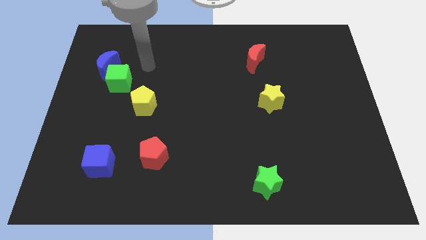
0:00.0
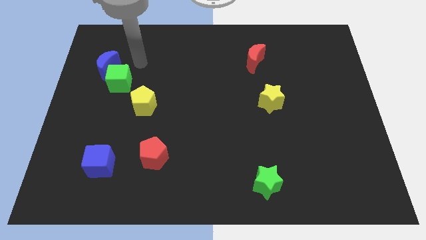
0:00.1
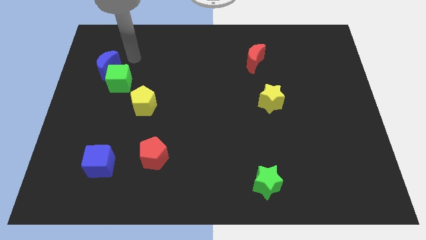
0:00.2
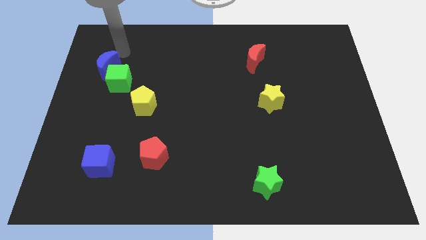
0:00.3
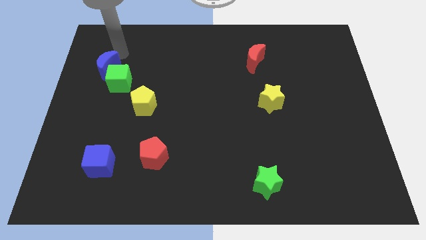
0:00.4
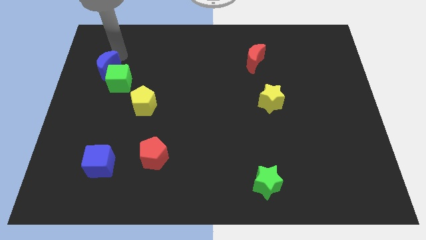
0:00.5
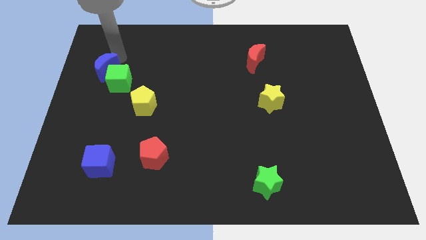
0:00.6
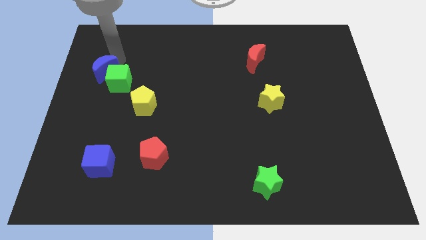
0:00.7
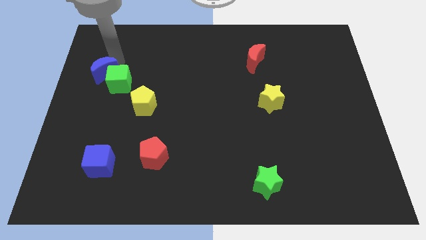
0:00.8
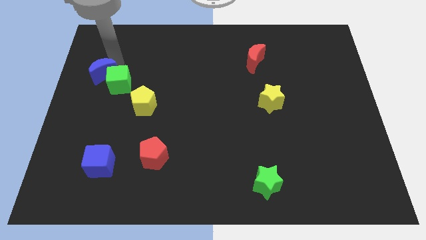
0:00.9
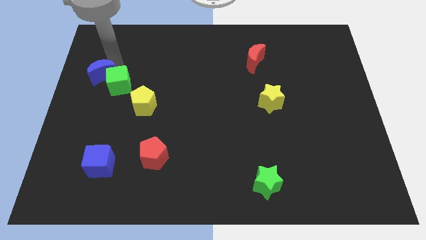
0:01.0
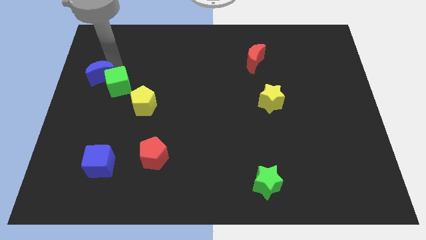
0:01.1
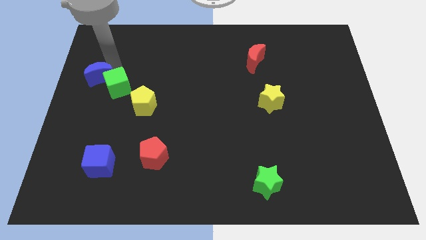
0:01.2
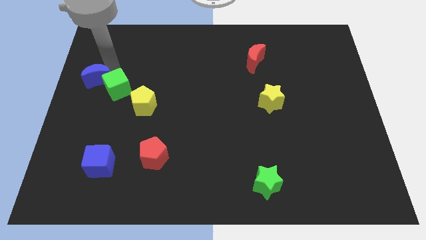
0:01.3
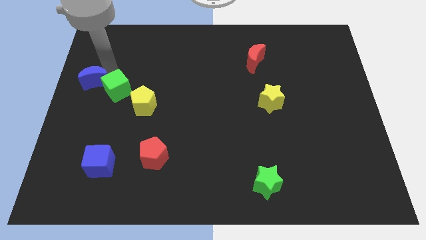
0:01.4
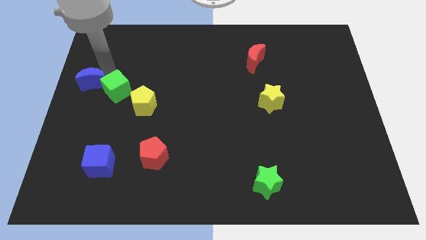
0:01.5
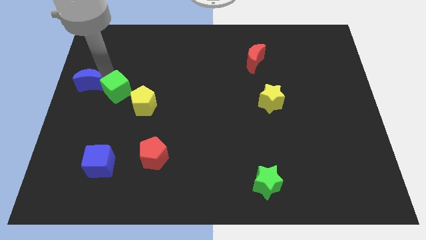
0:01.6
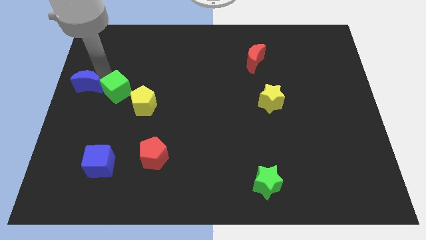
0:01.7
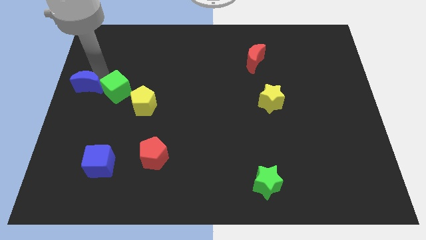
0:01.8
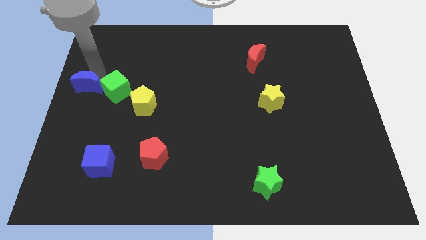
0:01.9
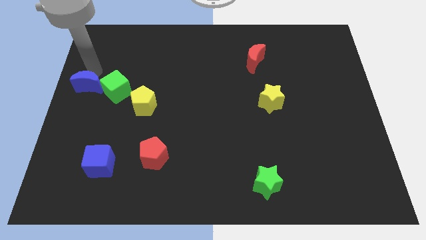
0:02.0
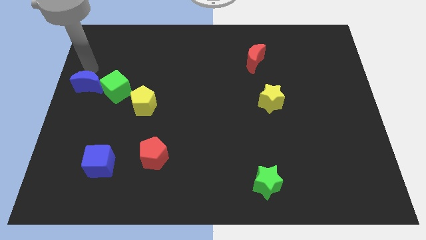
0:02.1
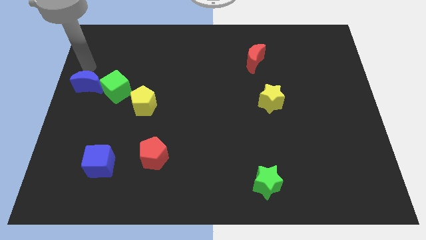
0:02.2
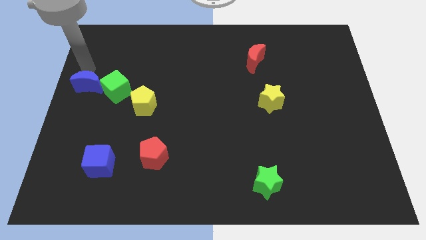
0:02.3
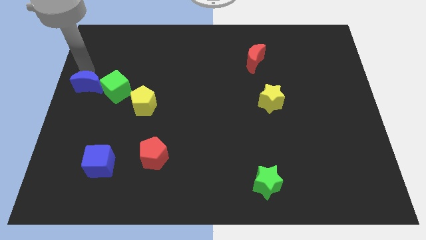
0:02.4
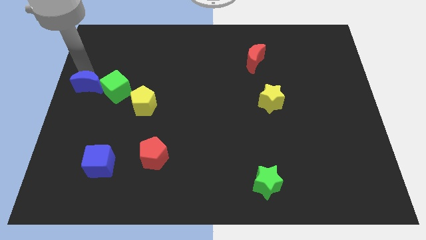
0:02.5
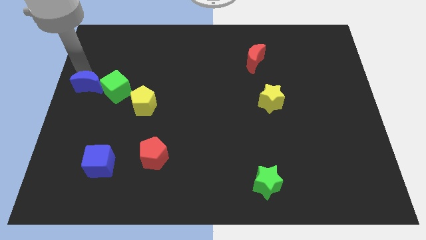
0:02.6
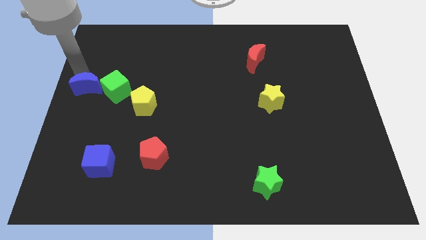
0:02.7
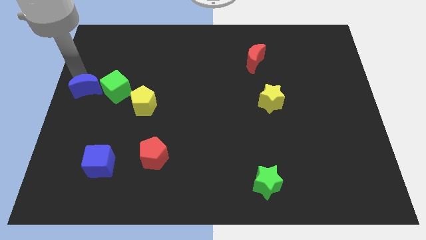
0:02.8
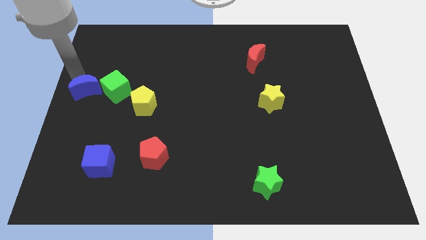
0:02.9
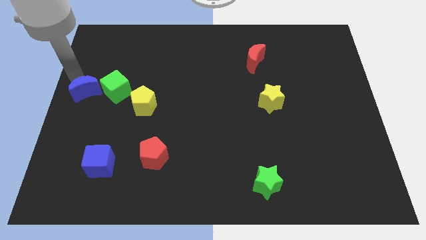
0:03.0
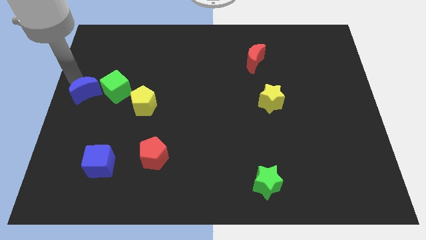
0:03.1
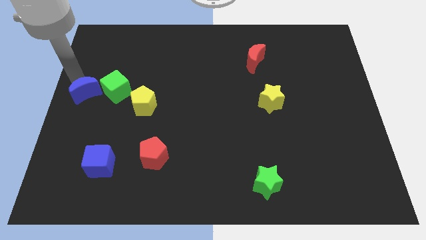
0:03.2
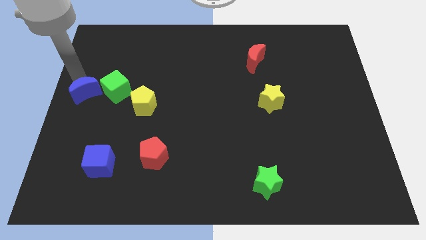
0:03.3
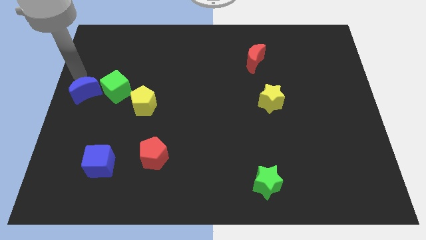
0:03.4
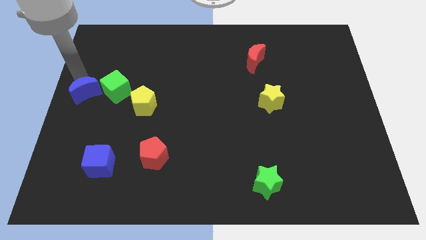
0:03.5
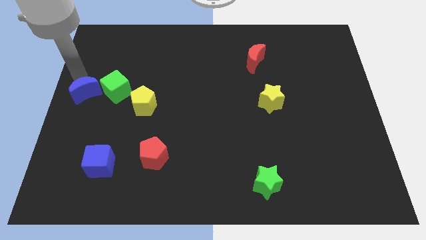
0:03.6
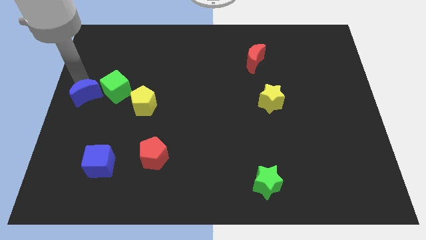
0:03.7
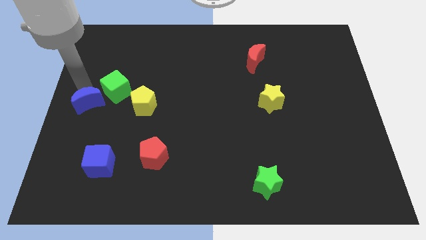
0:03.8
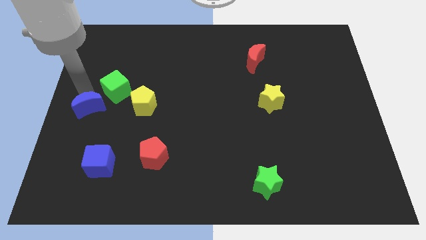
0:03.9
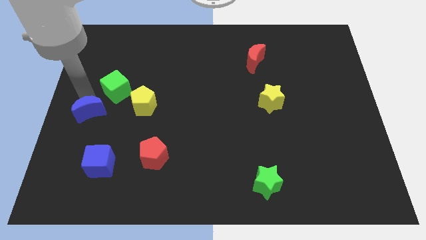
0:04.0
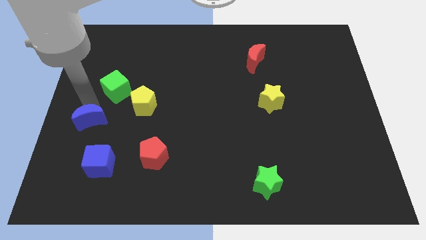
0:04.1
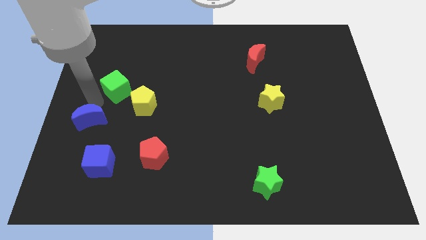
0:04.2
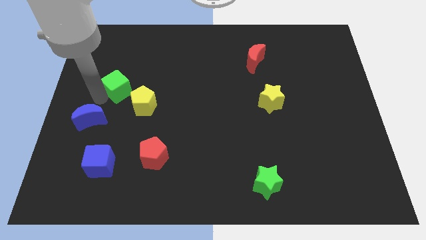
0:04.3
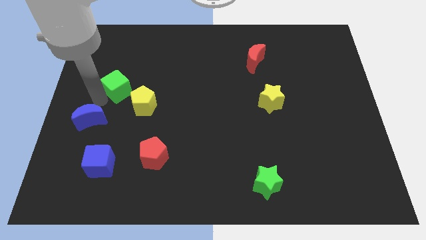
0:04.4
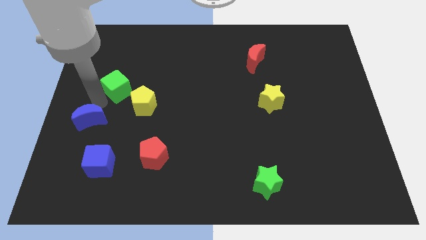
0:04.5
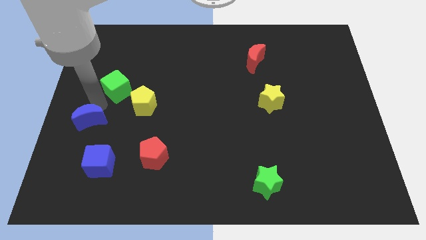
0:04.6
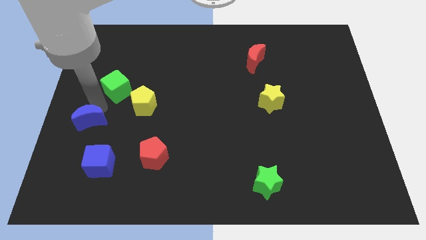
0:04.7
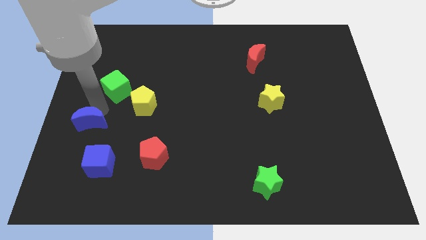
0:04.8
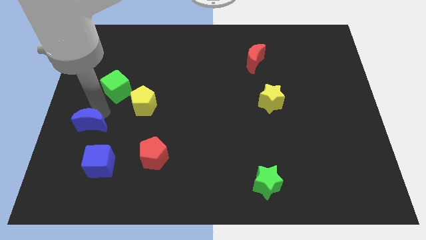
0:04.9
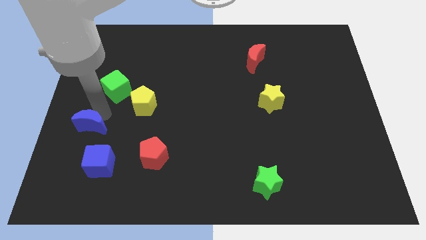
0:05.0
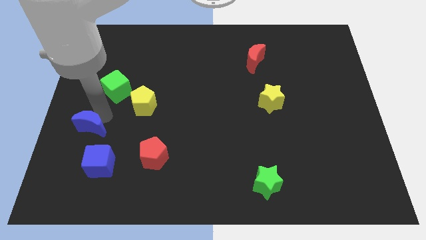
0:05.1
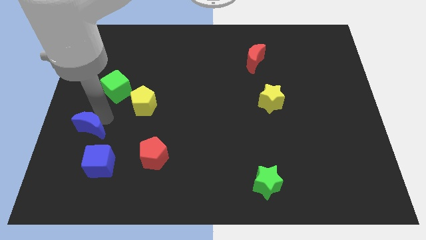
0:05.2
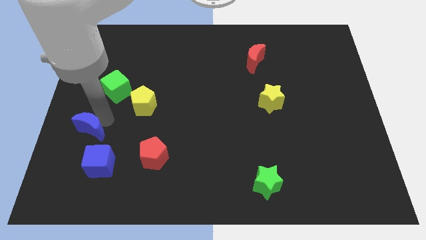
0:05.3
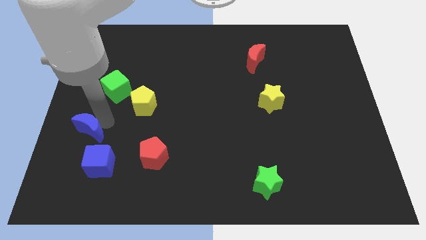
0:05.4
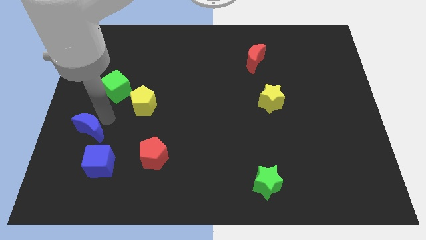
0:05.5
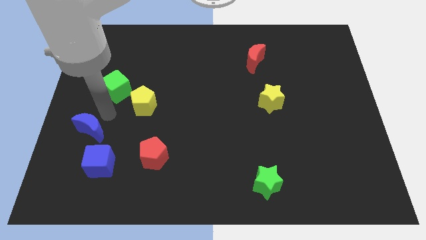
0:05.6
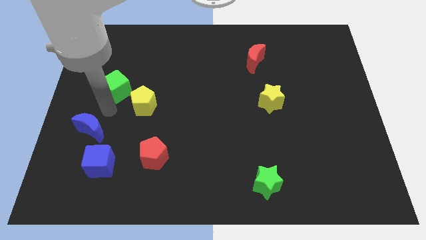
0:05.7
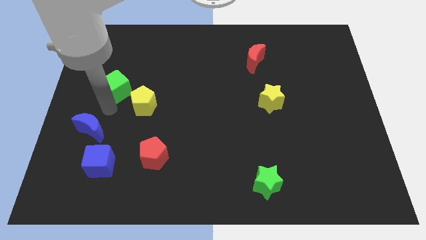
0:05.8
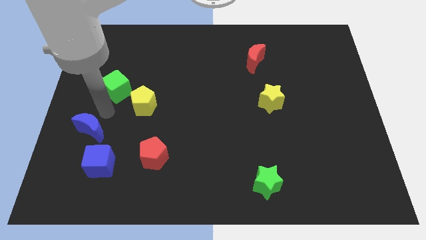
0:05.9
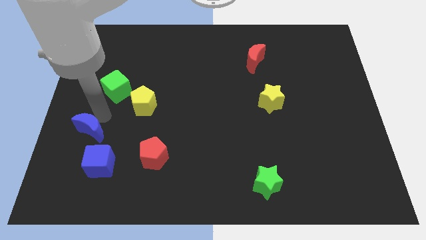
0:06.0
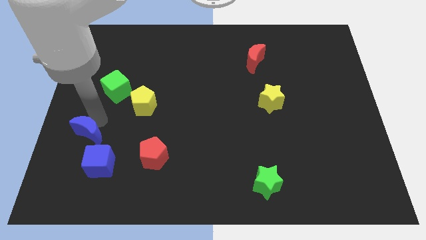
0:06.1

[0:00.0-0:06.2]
push the blue moon down

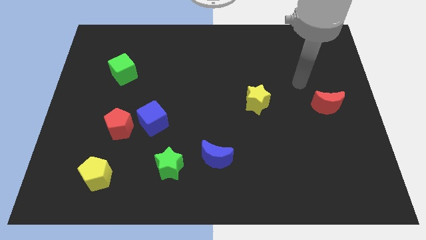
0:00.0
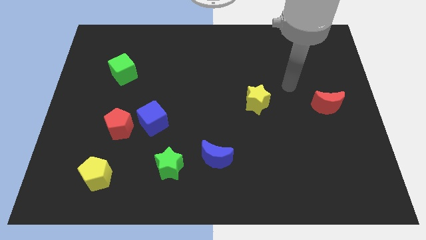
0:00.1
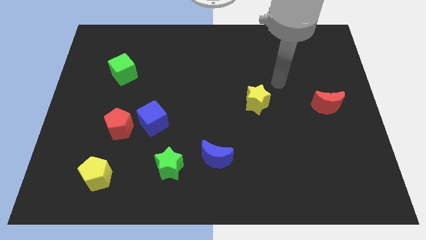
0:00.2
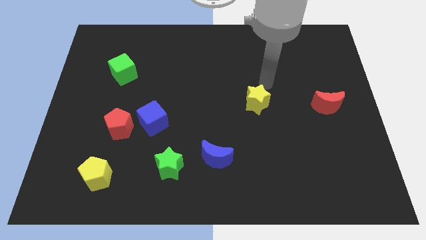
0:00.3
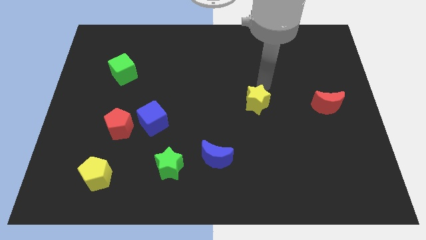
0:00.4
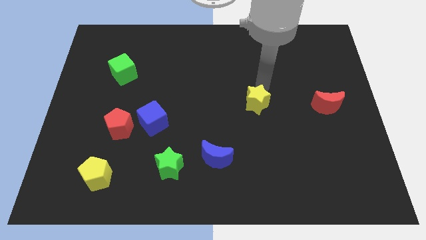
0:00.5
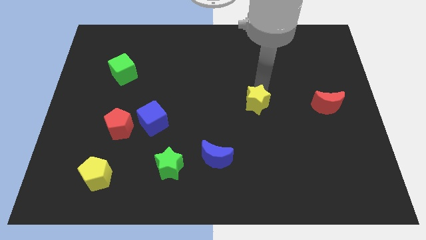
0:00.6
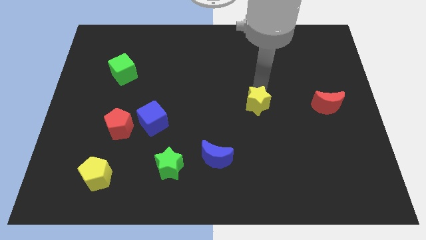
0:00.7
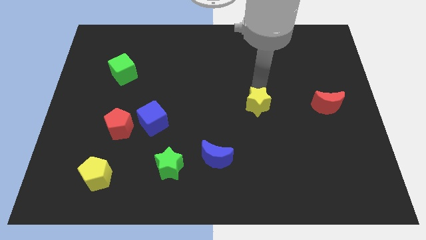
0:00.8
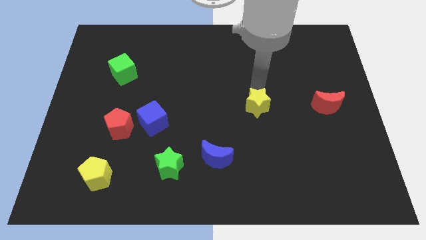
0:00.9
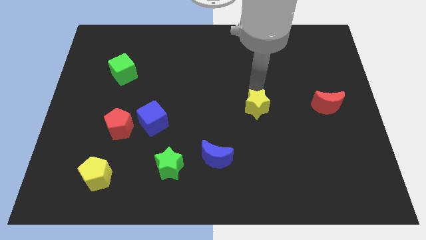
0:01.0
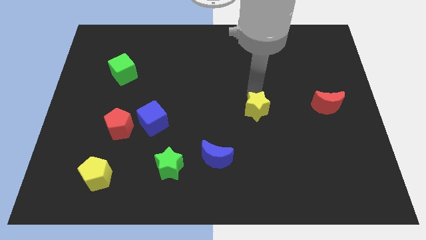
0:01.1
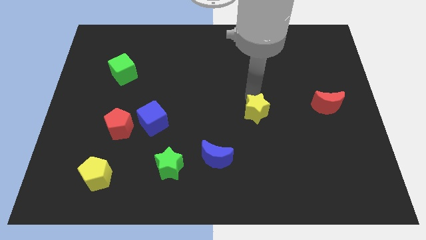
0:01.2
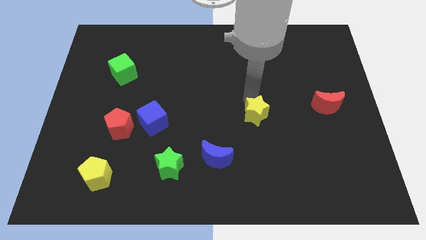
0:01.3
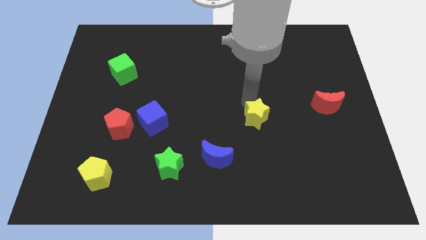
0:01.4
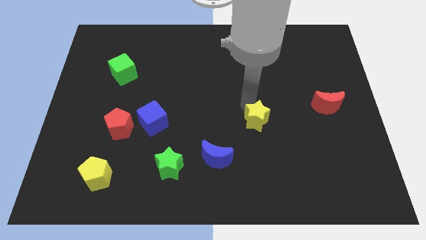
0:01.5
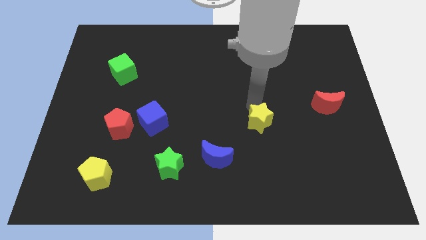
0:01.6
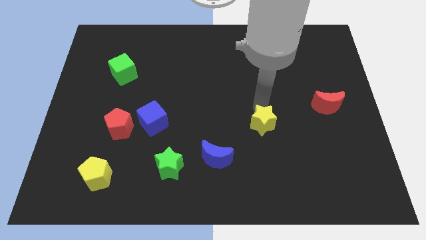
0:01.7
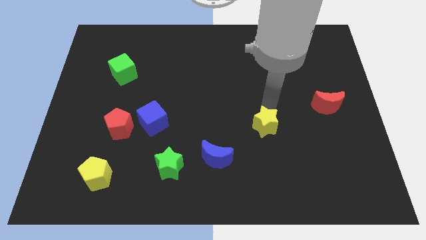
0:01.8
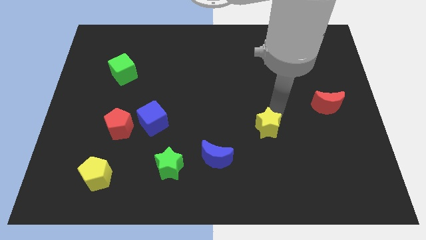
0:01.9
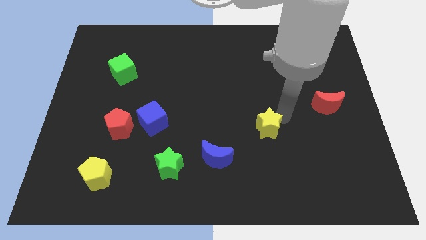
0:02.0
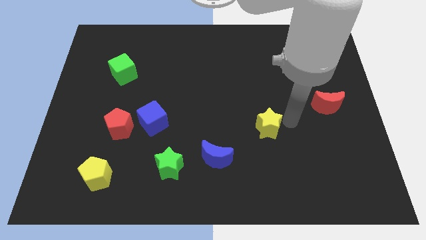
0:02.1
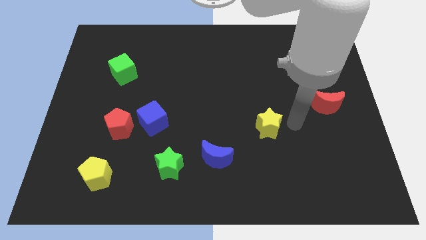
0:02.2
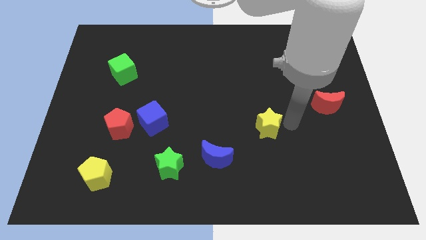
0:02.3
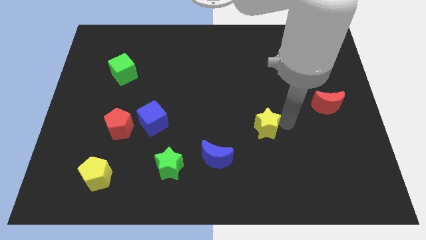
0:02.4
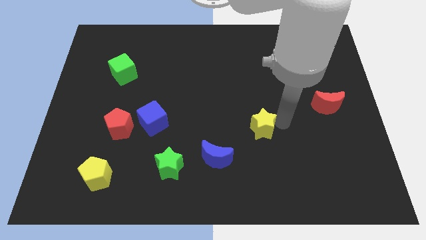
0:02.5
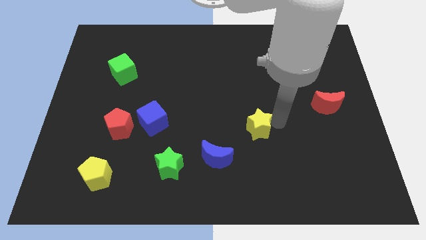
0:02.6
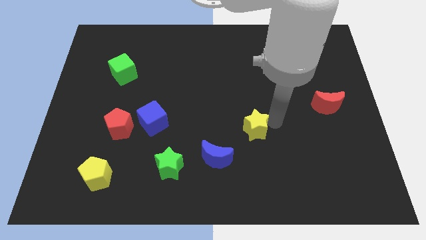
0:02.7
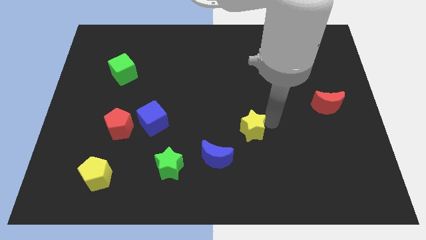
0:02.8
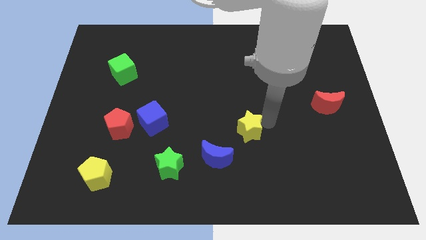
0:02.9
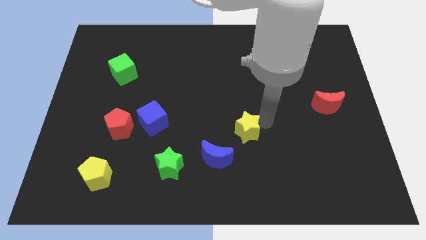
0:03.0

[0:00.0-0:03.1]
move the yellow star slightly downwards and to the left
